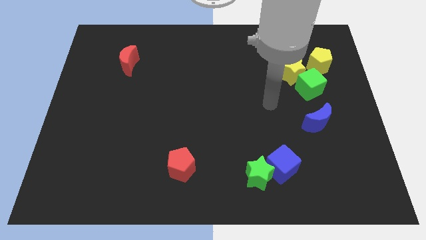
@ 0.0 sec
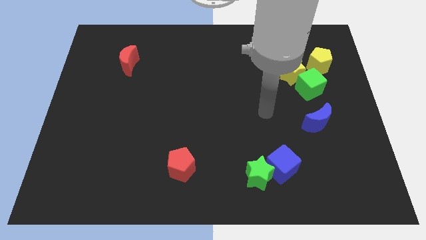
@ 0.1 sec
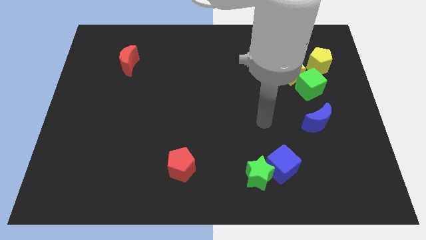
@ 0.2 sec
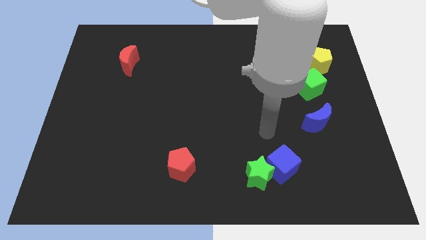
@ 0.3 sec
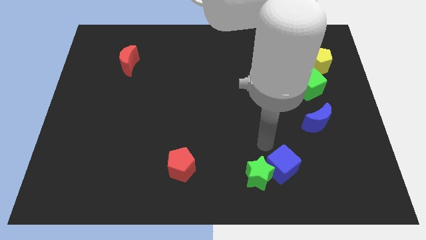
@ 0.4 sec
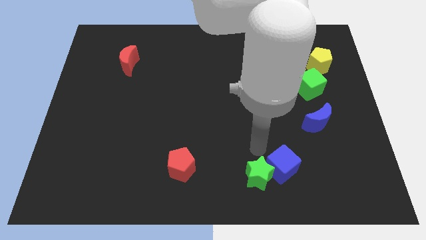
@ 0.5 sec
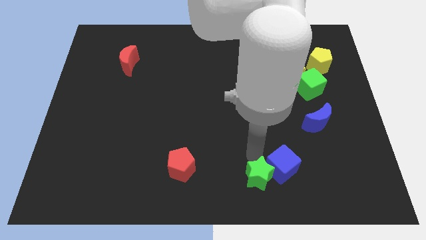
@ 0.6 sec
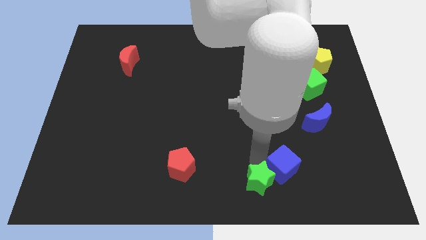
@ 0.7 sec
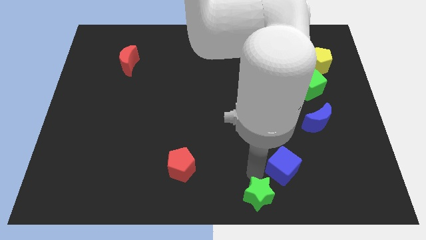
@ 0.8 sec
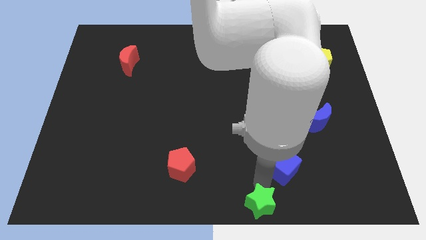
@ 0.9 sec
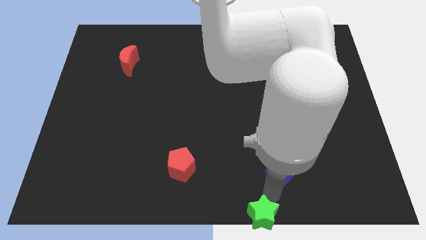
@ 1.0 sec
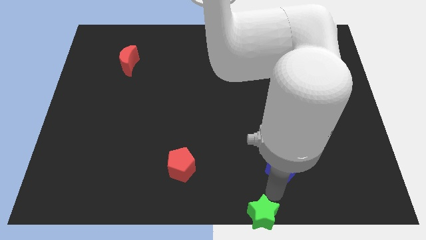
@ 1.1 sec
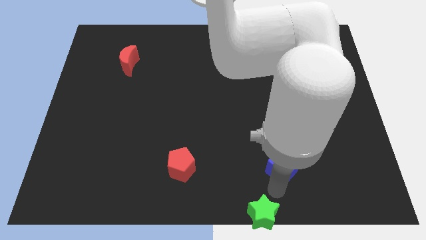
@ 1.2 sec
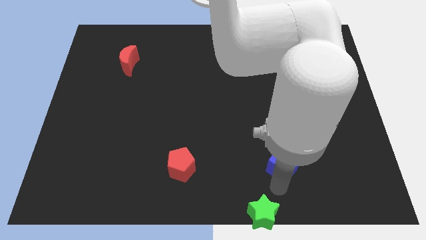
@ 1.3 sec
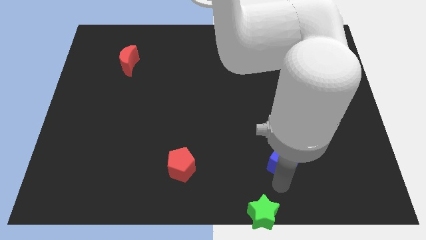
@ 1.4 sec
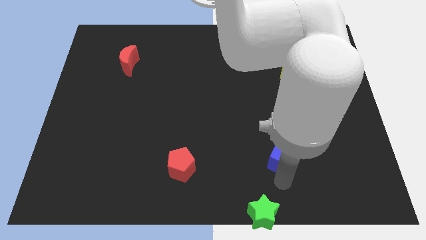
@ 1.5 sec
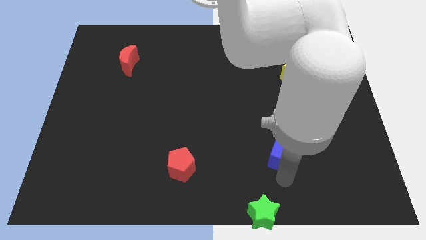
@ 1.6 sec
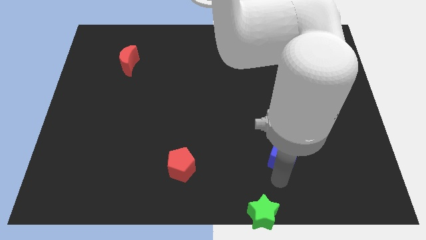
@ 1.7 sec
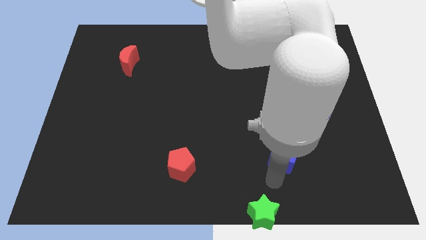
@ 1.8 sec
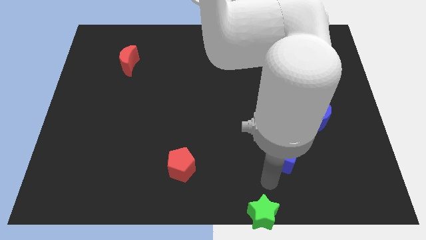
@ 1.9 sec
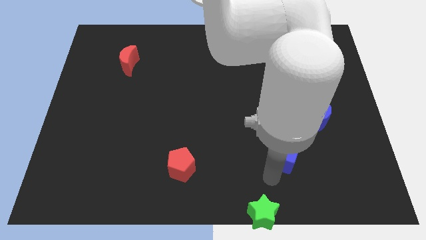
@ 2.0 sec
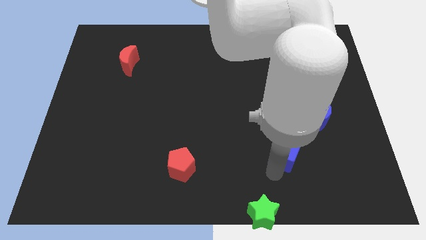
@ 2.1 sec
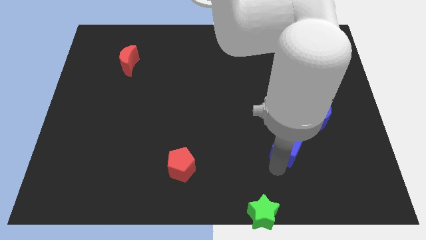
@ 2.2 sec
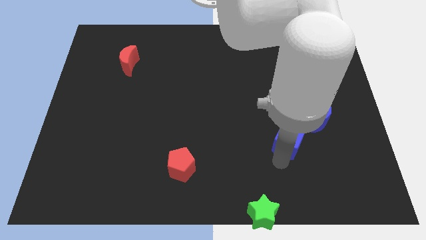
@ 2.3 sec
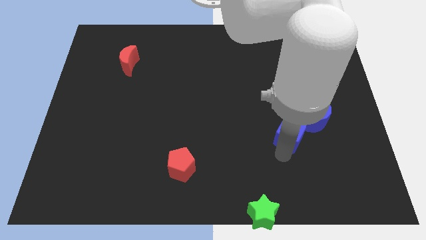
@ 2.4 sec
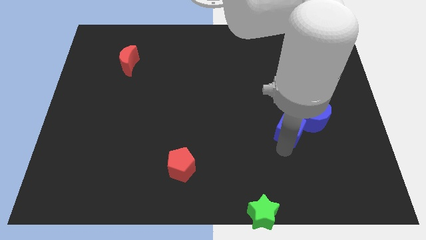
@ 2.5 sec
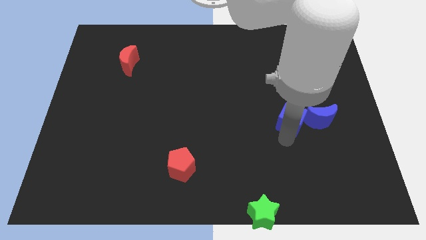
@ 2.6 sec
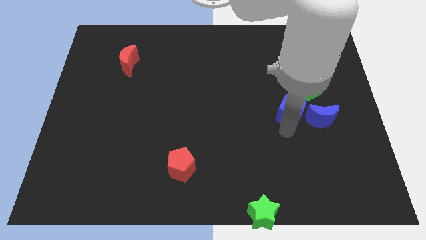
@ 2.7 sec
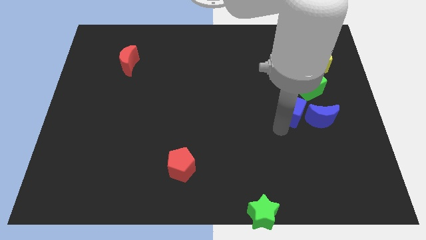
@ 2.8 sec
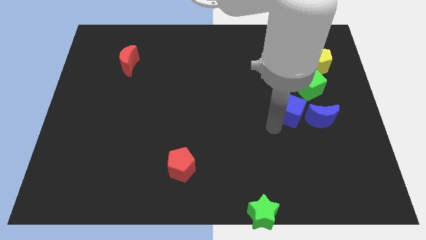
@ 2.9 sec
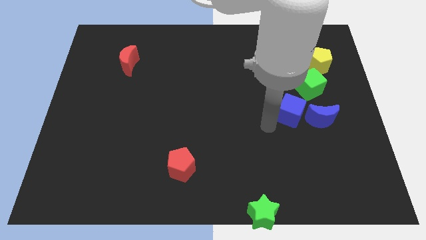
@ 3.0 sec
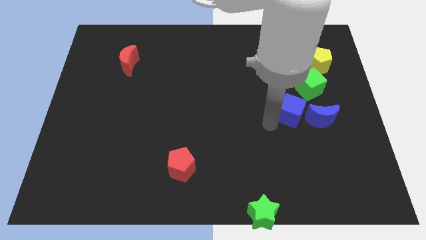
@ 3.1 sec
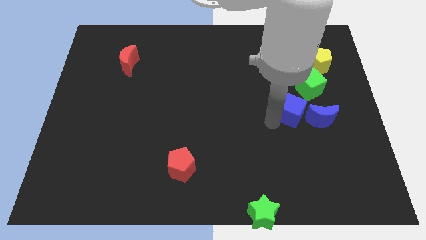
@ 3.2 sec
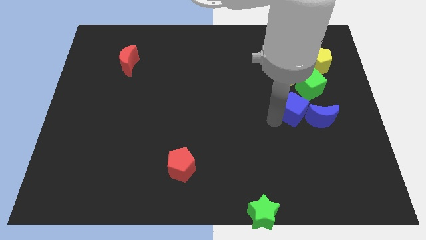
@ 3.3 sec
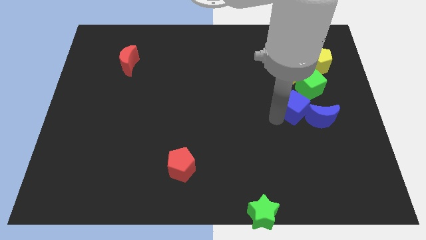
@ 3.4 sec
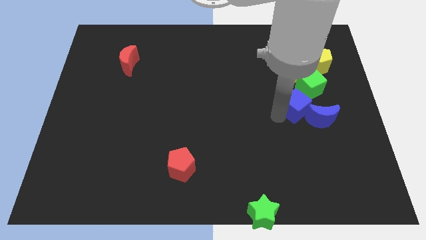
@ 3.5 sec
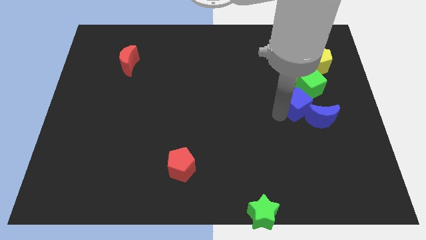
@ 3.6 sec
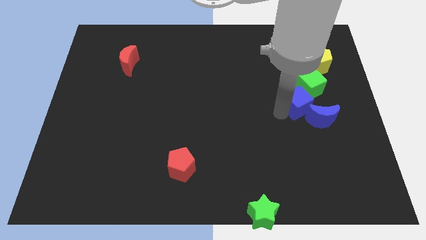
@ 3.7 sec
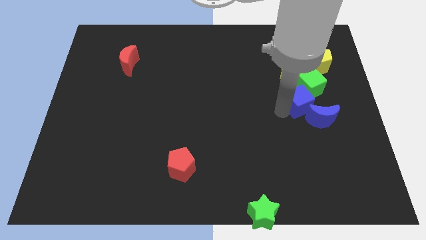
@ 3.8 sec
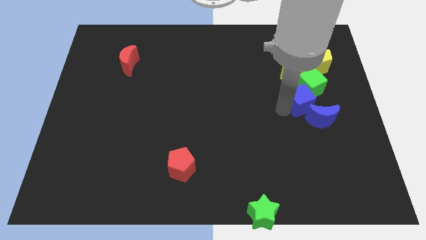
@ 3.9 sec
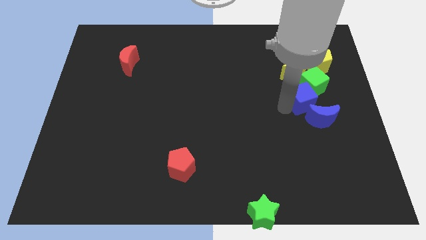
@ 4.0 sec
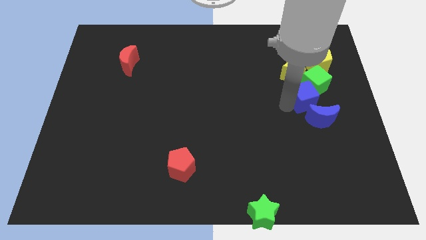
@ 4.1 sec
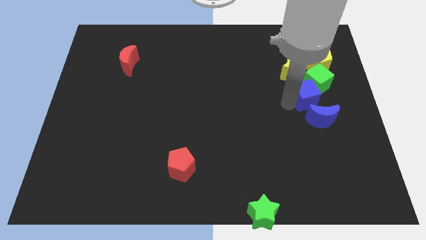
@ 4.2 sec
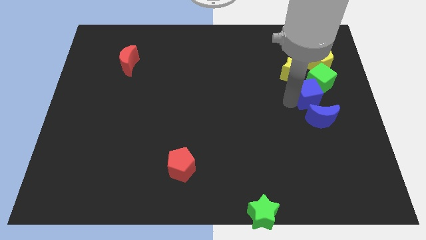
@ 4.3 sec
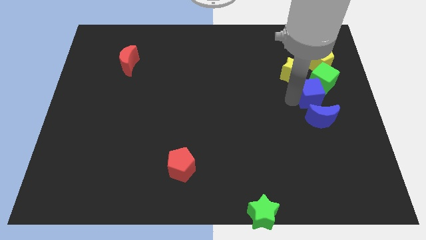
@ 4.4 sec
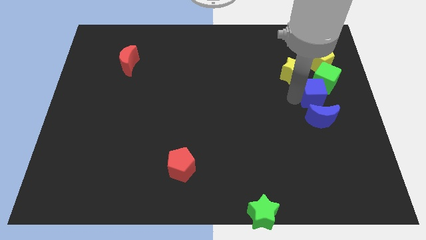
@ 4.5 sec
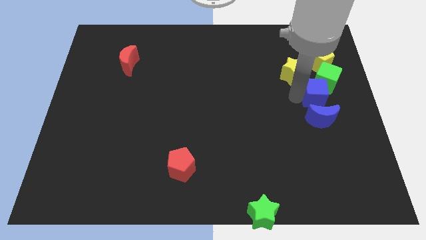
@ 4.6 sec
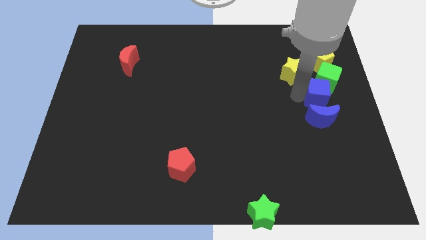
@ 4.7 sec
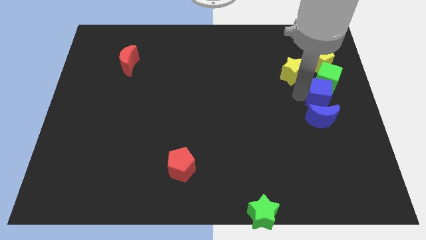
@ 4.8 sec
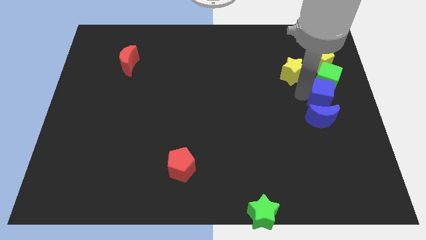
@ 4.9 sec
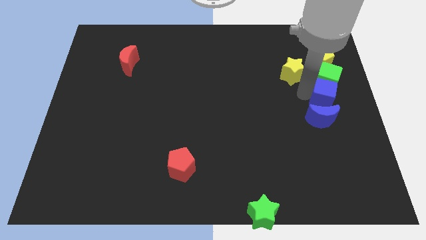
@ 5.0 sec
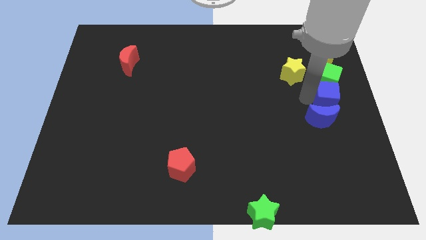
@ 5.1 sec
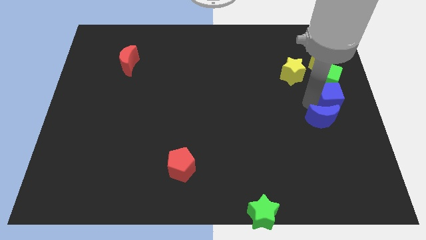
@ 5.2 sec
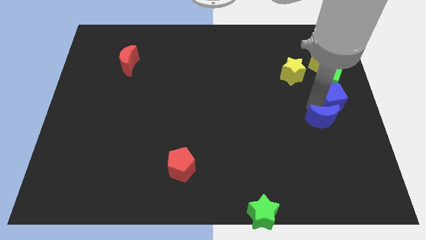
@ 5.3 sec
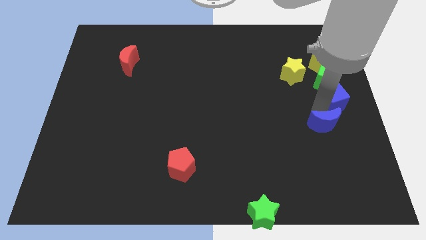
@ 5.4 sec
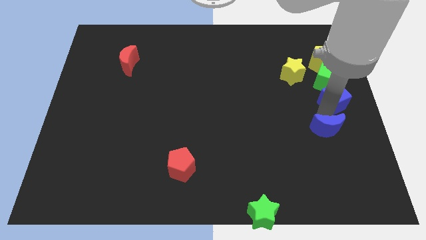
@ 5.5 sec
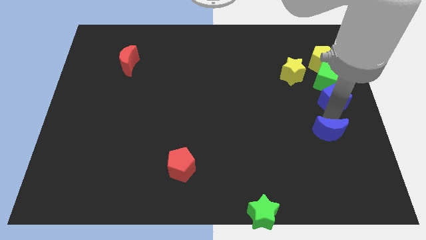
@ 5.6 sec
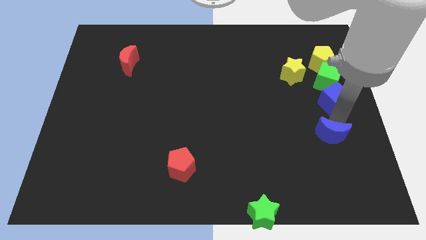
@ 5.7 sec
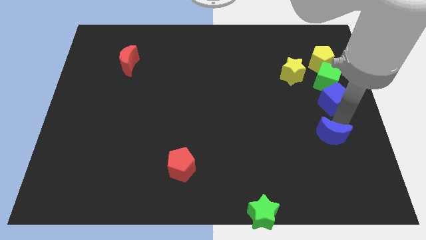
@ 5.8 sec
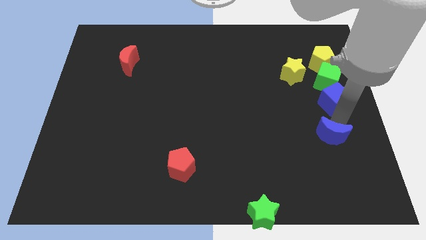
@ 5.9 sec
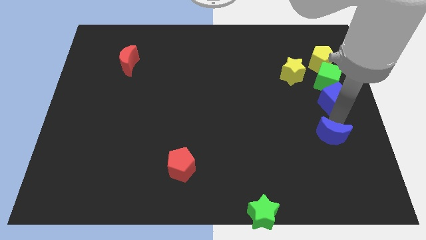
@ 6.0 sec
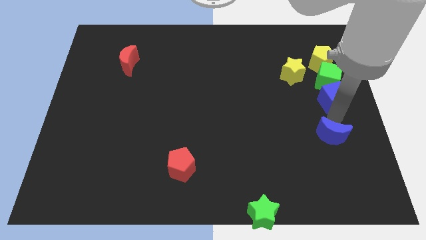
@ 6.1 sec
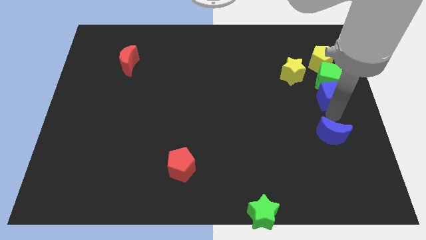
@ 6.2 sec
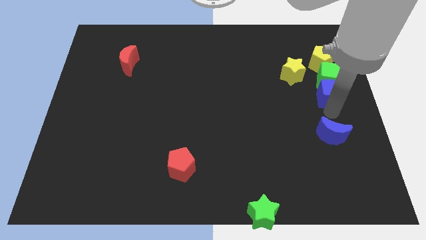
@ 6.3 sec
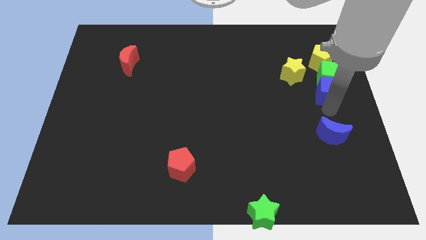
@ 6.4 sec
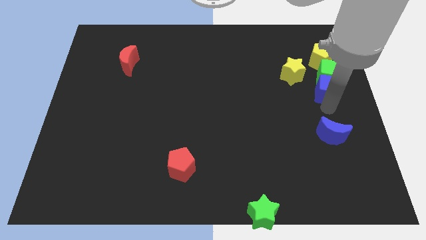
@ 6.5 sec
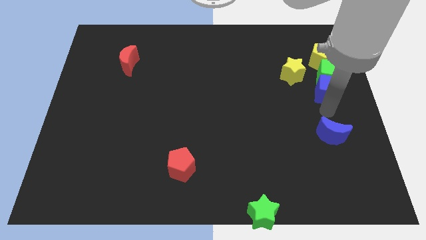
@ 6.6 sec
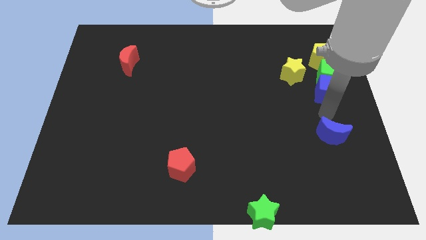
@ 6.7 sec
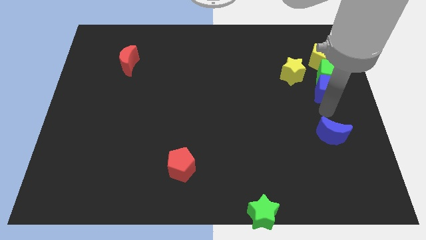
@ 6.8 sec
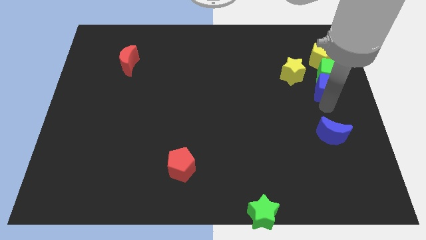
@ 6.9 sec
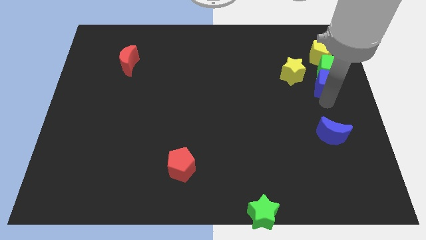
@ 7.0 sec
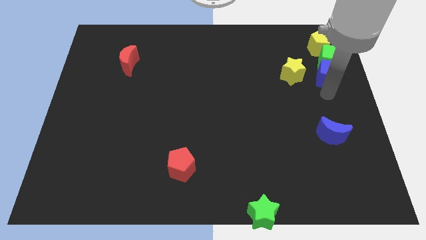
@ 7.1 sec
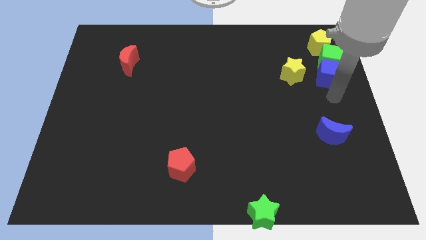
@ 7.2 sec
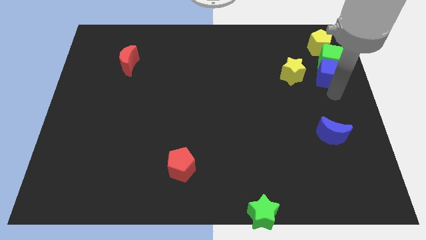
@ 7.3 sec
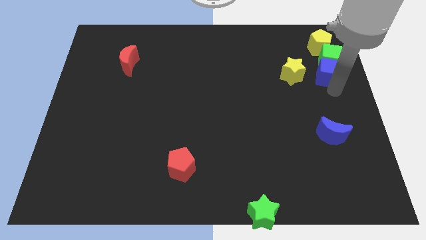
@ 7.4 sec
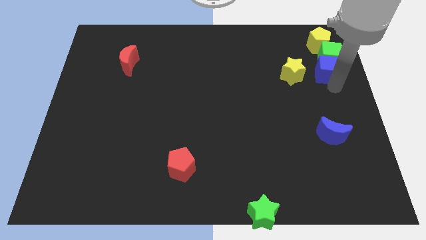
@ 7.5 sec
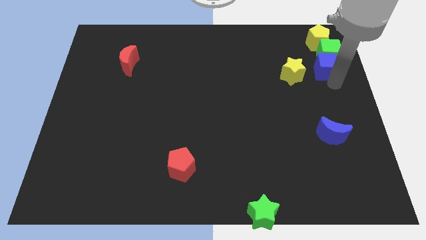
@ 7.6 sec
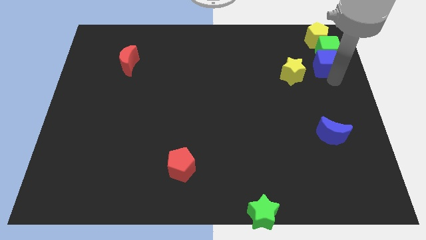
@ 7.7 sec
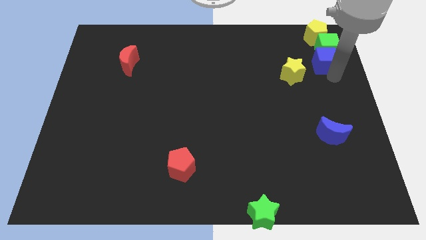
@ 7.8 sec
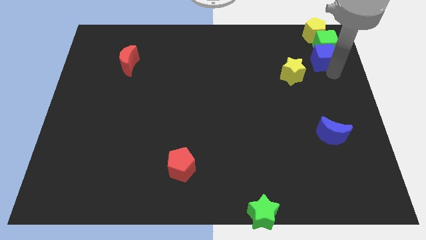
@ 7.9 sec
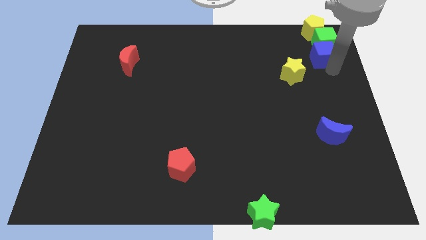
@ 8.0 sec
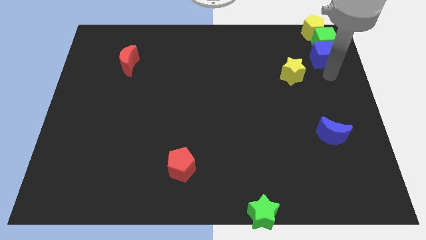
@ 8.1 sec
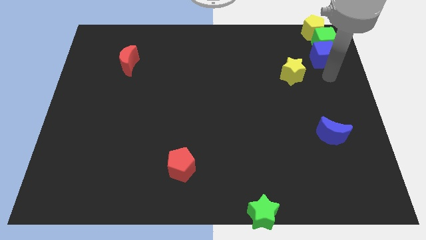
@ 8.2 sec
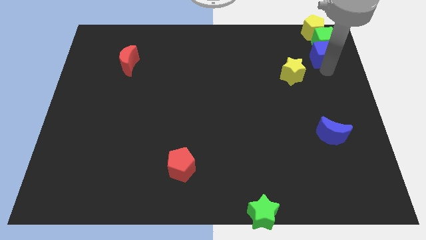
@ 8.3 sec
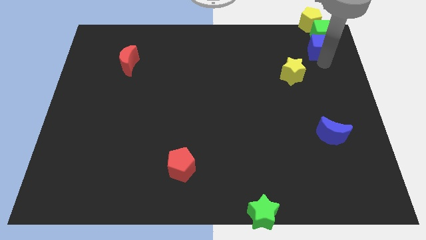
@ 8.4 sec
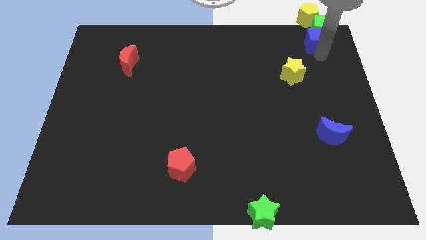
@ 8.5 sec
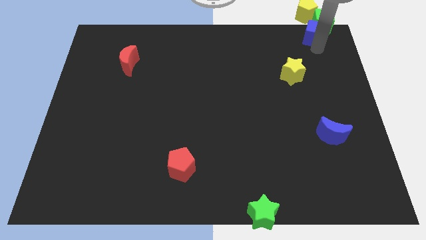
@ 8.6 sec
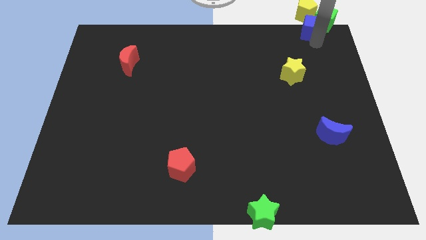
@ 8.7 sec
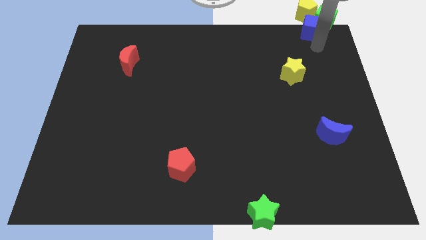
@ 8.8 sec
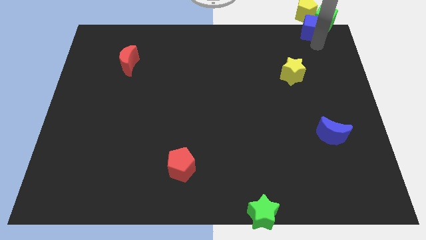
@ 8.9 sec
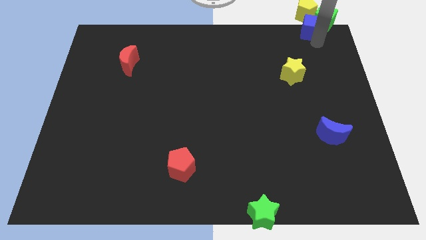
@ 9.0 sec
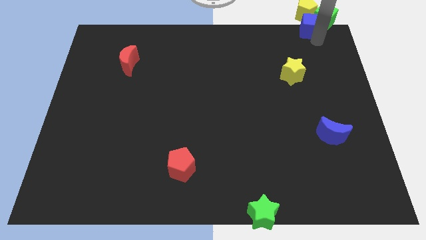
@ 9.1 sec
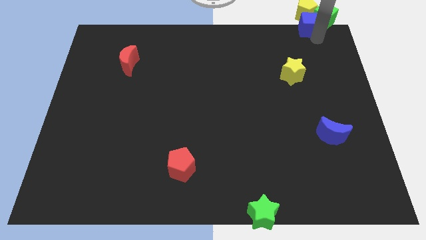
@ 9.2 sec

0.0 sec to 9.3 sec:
push the blue cube towards the yellow pentagon
